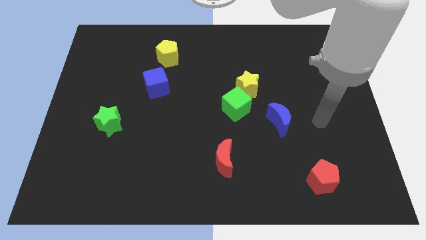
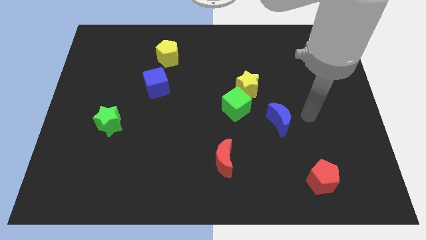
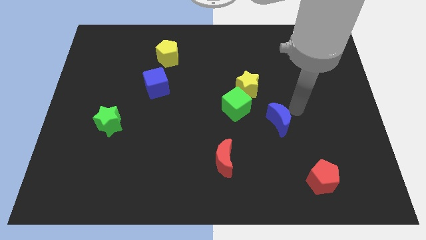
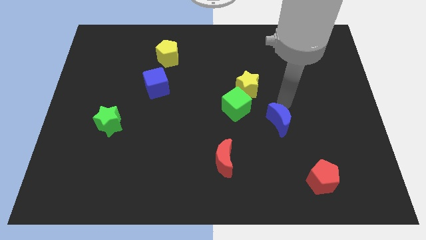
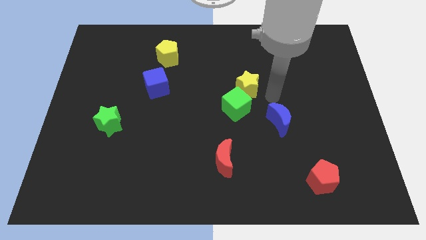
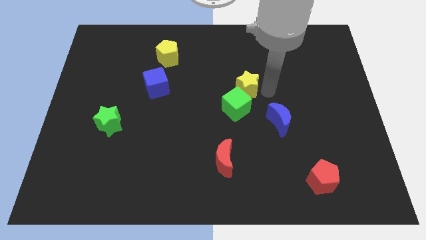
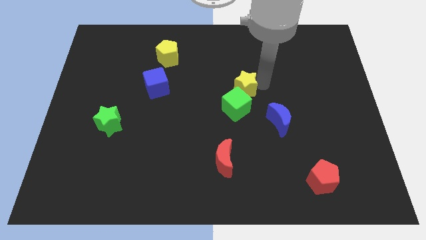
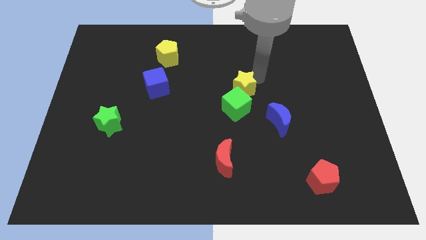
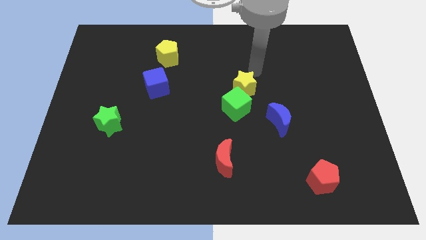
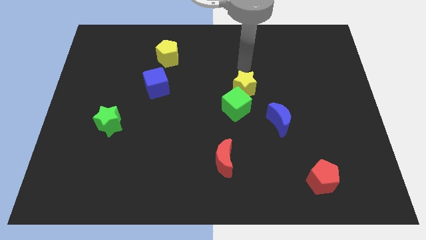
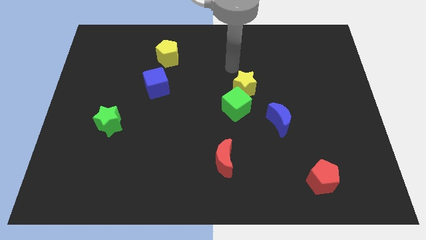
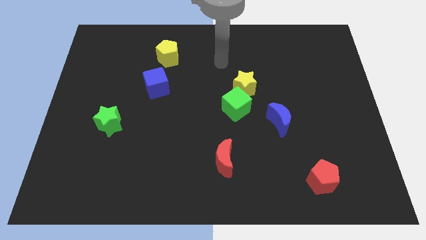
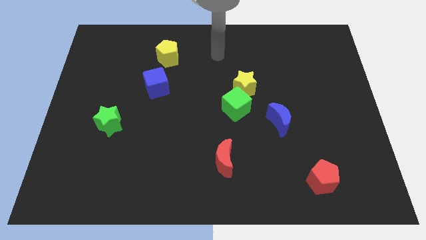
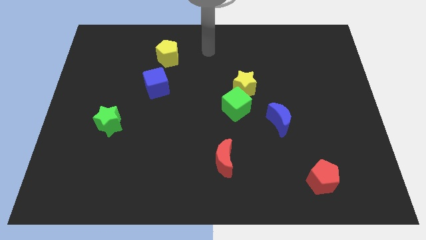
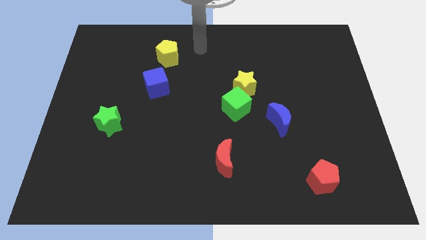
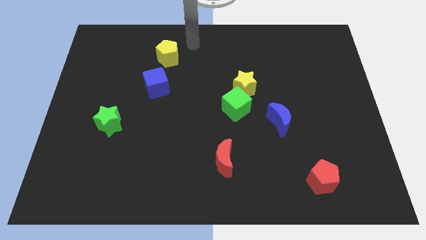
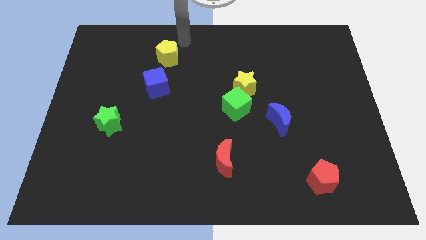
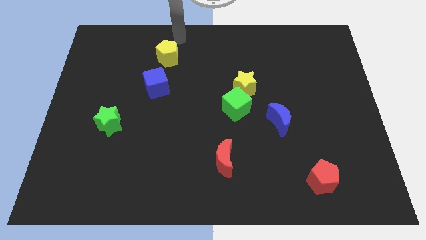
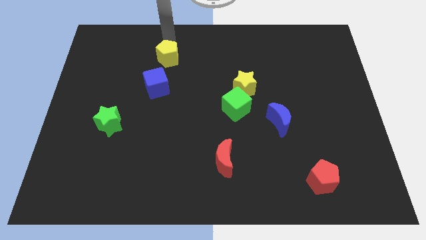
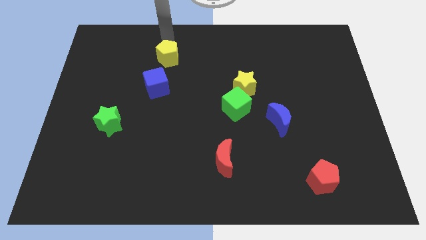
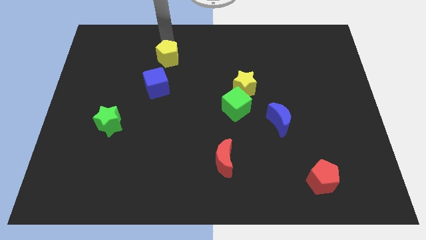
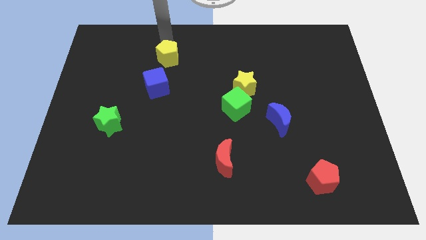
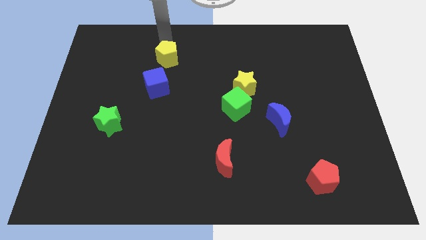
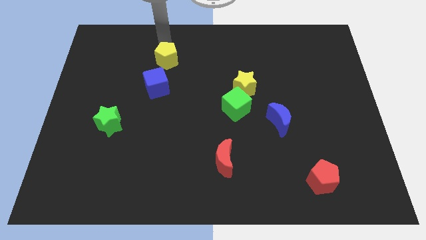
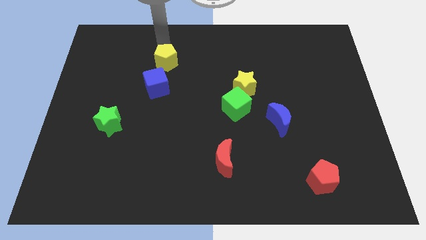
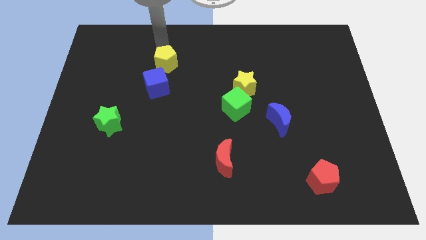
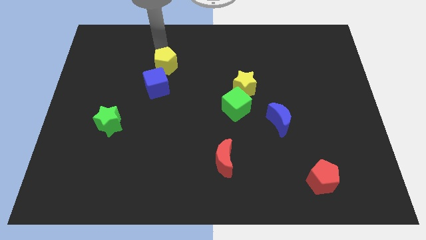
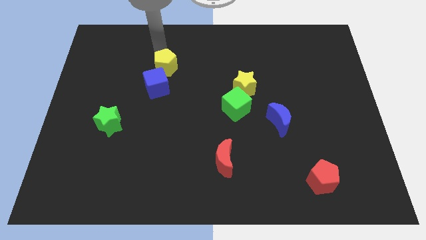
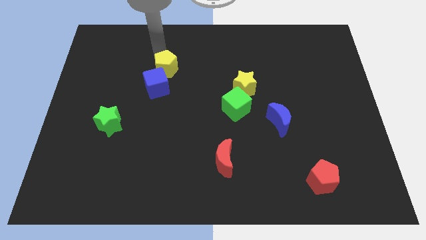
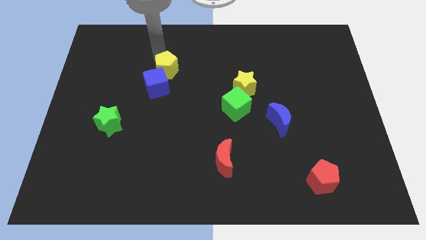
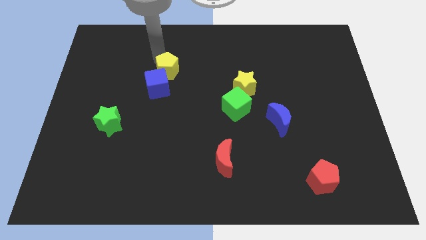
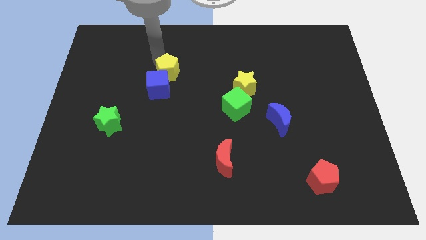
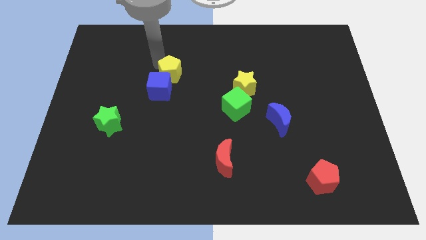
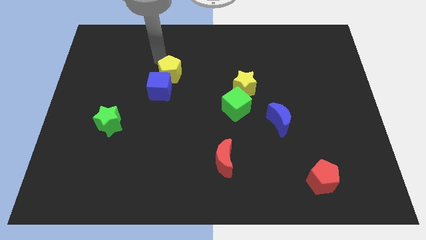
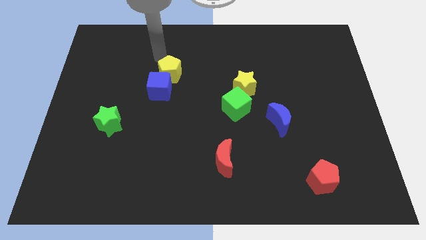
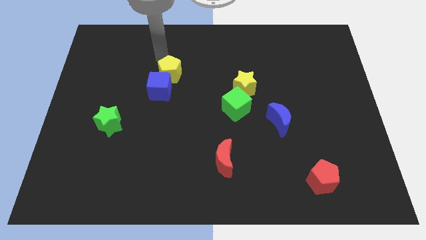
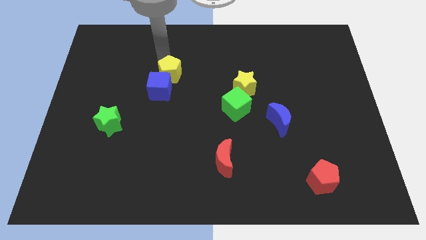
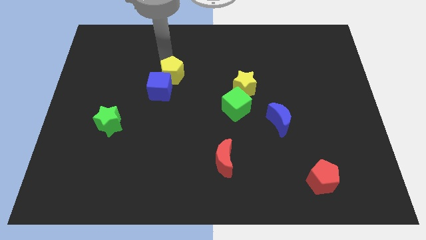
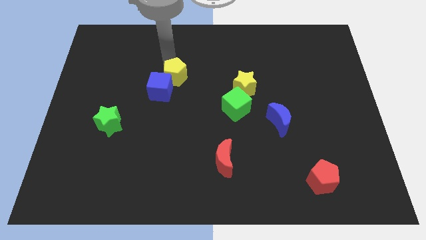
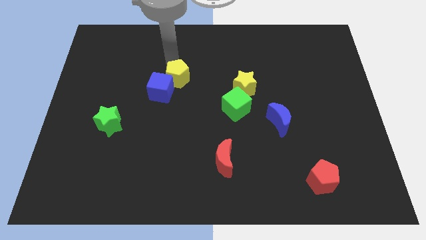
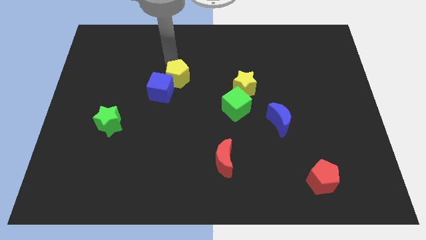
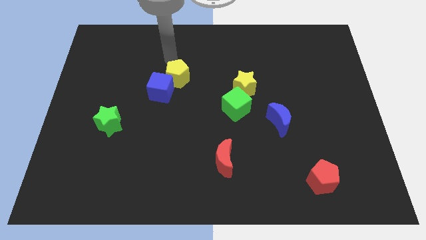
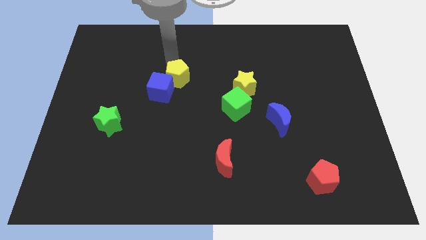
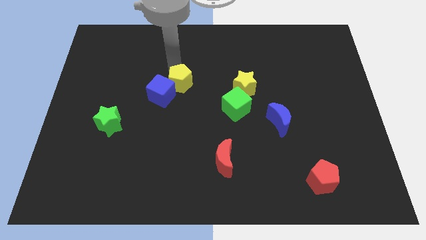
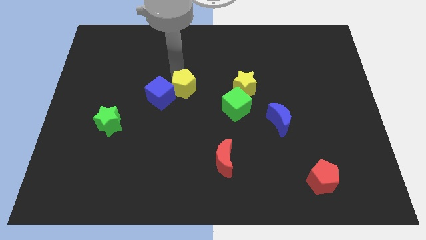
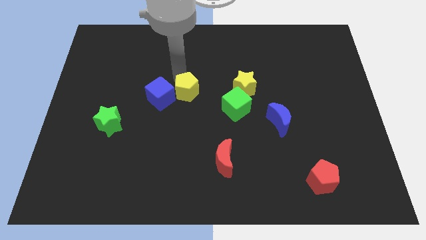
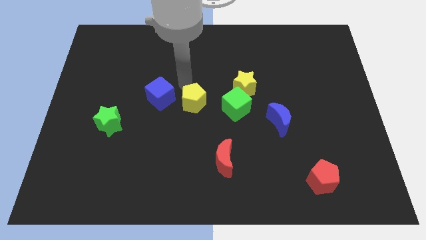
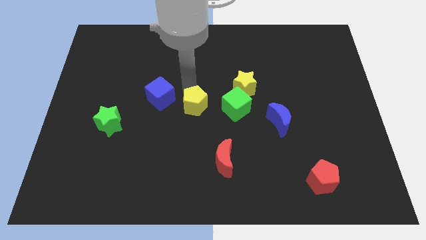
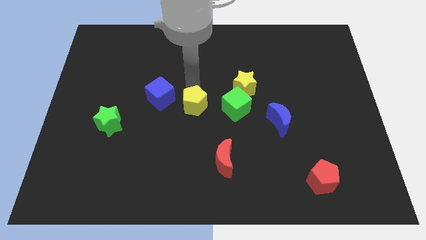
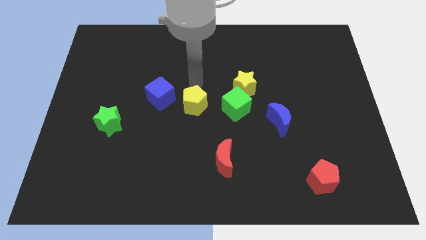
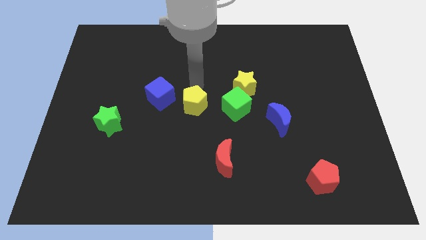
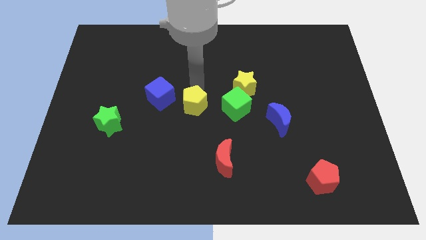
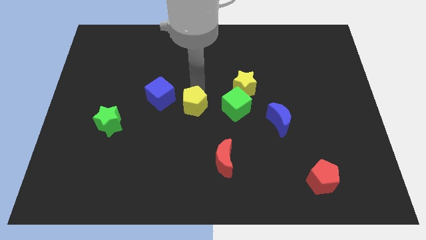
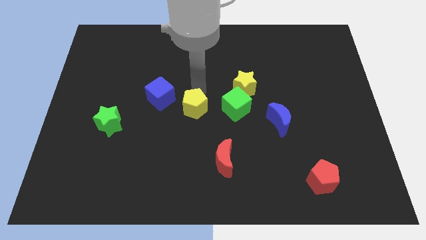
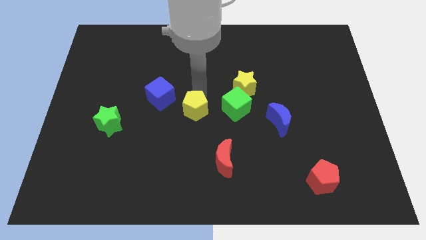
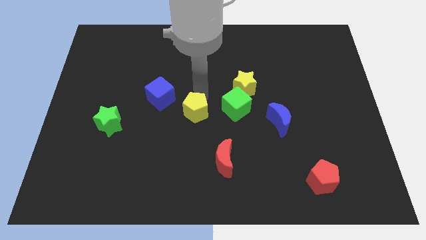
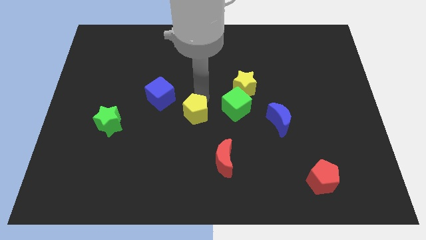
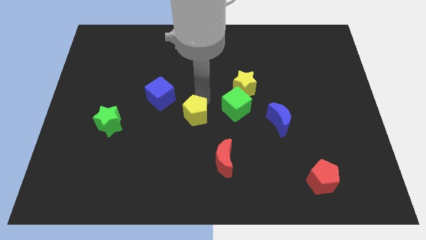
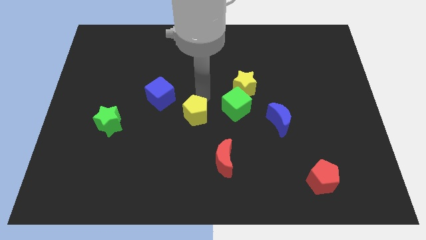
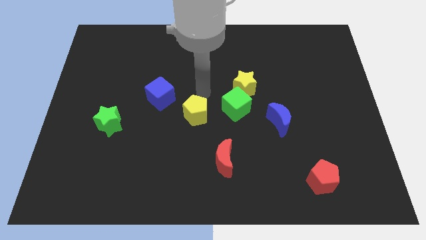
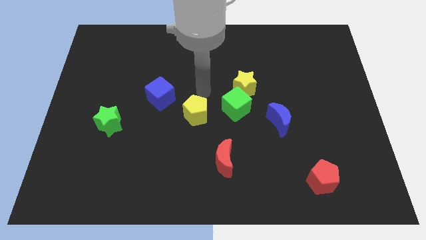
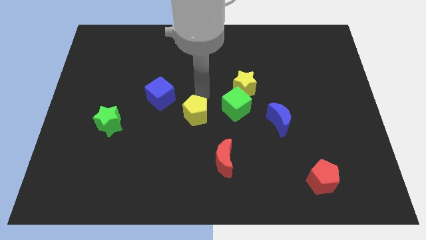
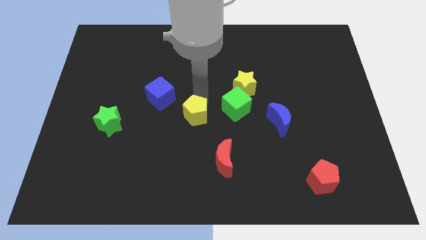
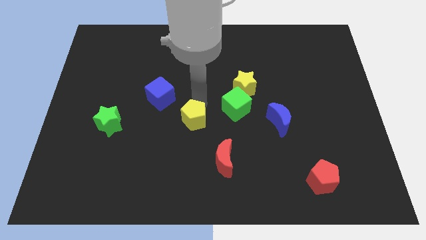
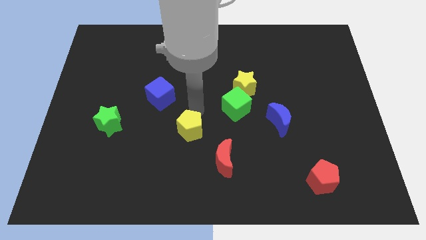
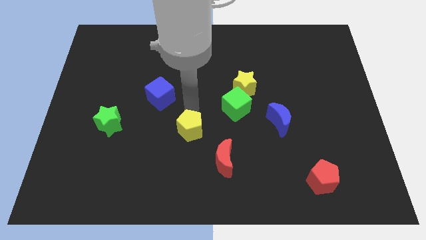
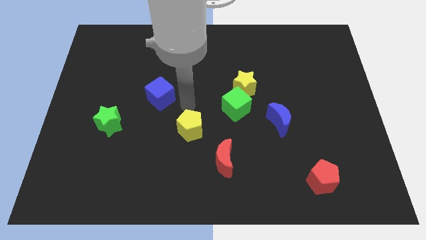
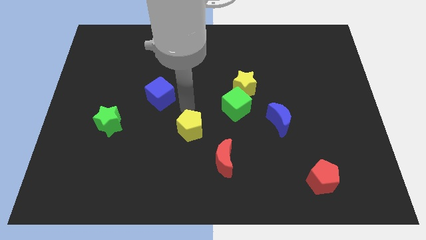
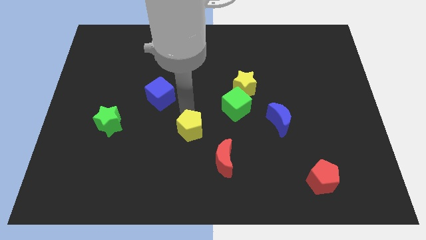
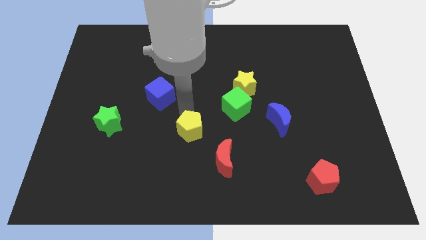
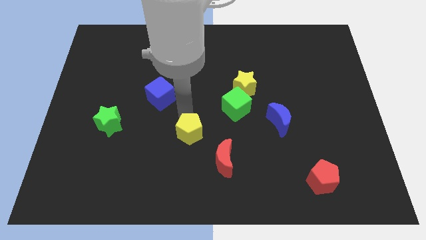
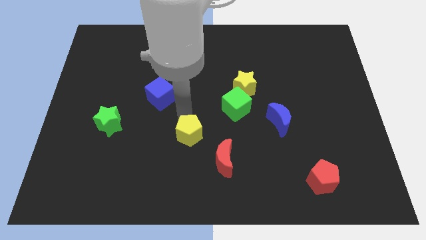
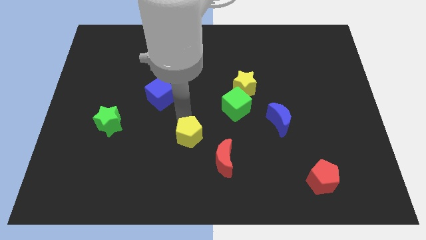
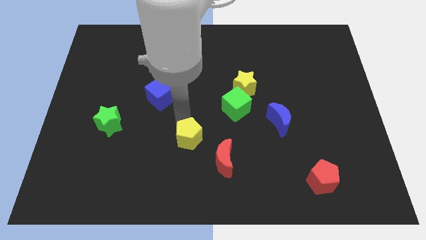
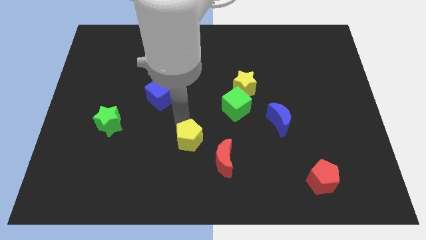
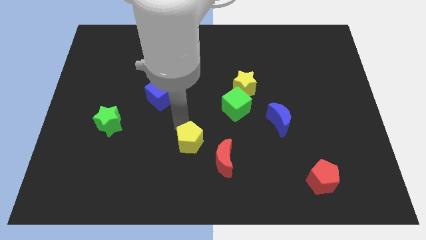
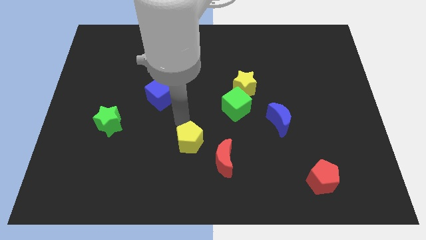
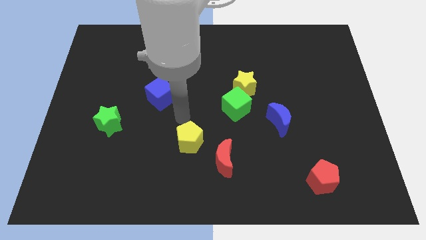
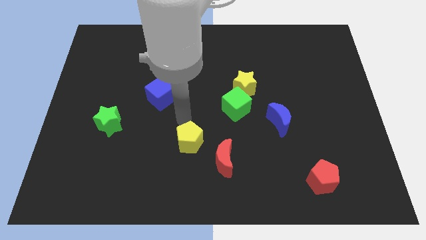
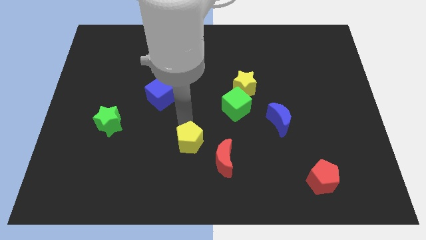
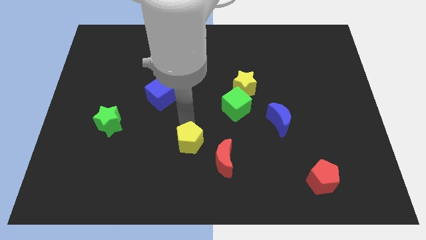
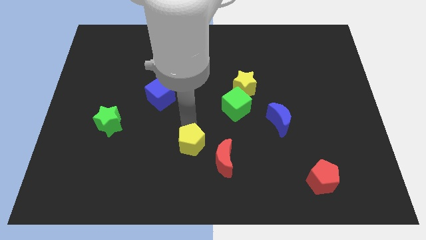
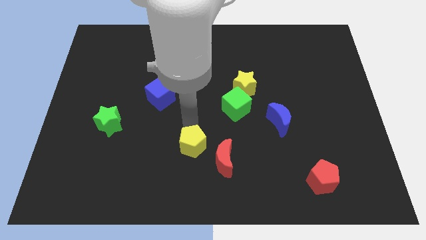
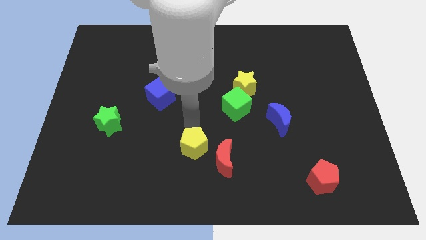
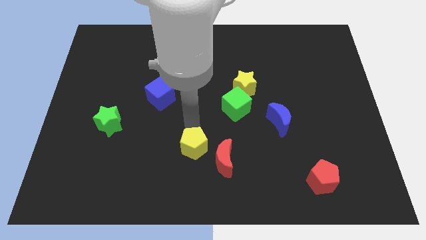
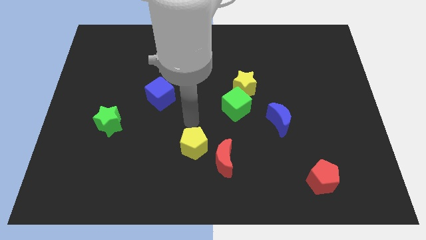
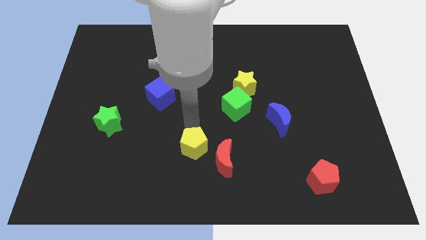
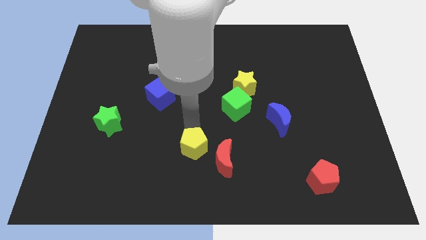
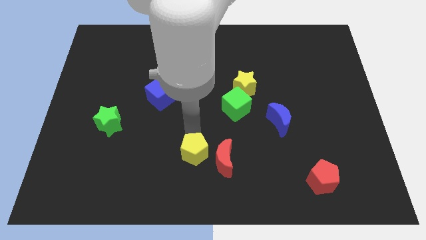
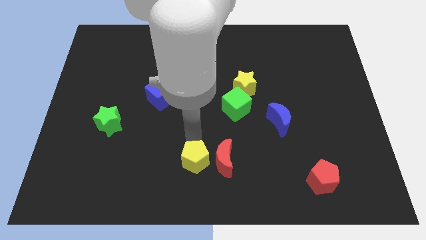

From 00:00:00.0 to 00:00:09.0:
move the yellow pentagon to the bottom left of the red moon
